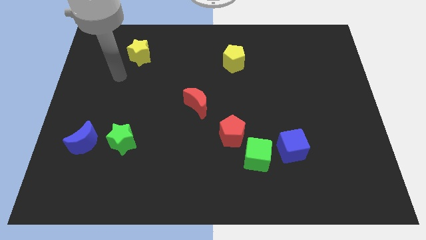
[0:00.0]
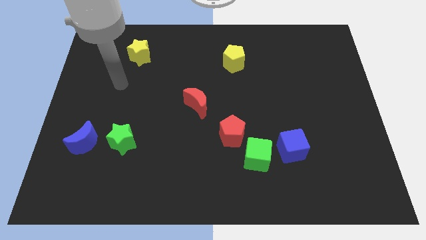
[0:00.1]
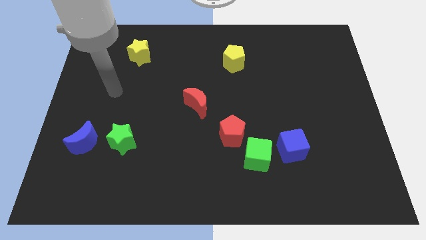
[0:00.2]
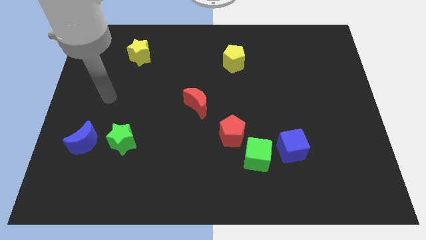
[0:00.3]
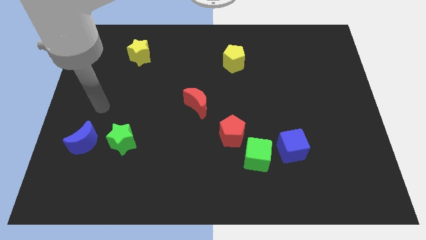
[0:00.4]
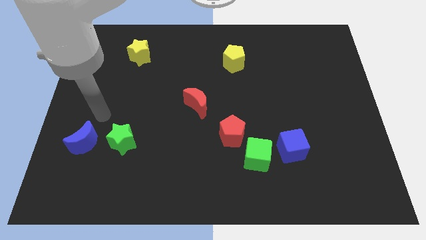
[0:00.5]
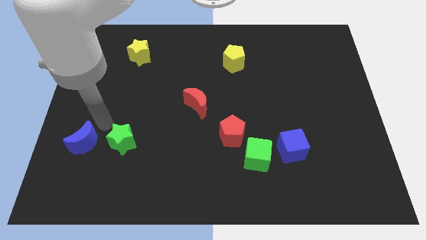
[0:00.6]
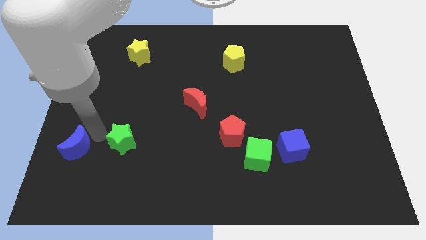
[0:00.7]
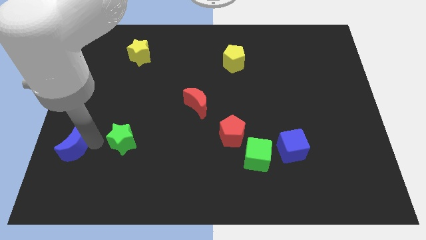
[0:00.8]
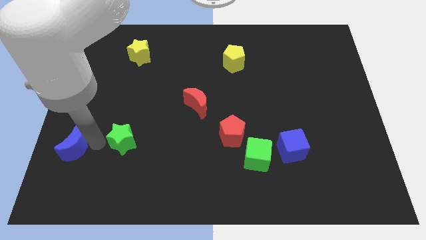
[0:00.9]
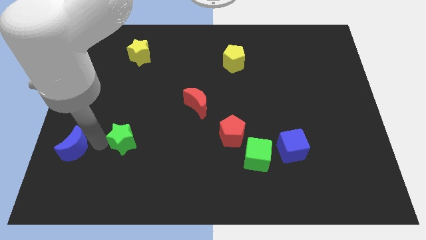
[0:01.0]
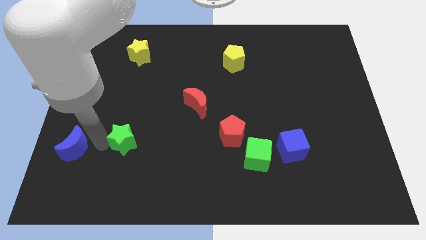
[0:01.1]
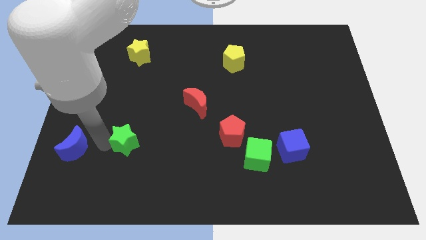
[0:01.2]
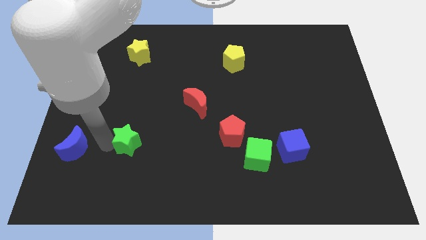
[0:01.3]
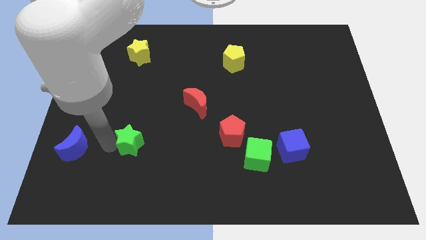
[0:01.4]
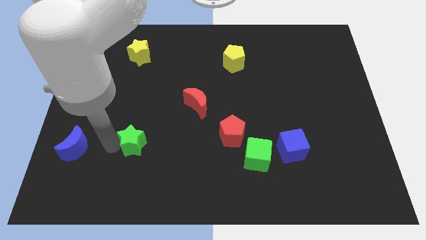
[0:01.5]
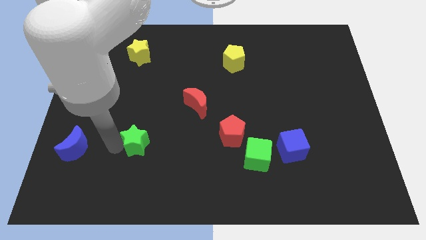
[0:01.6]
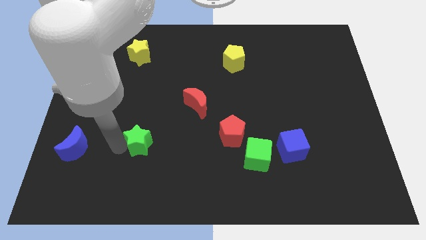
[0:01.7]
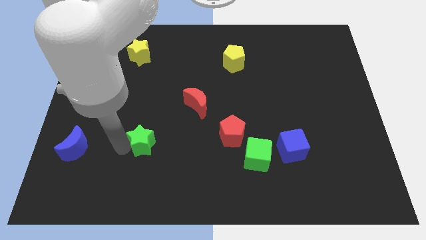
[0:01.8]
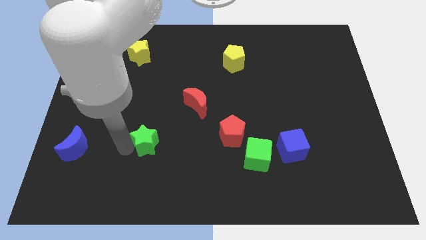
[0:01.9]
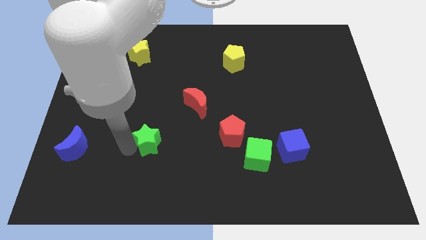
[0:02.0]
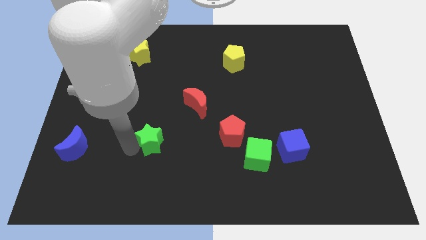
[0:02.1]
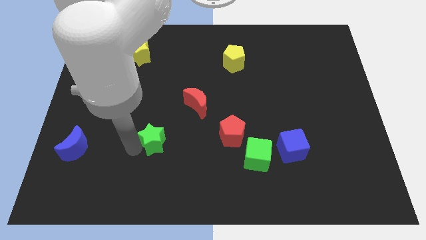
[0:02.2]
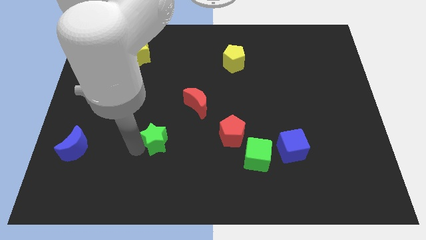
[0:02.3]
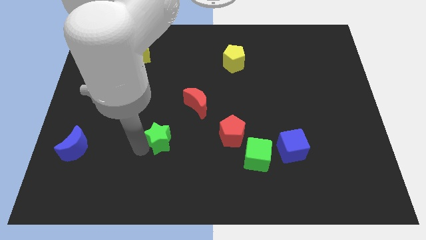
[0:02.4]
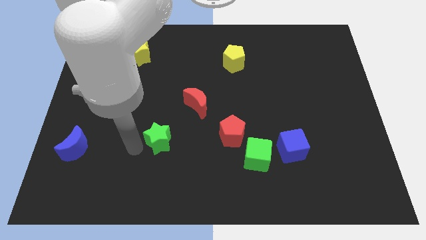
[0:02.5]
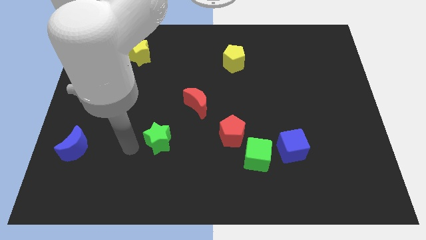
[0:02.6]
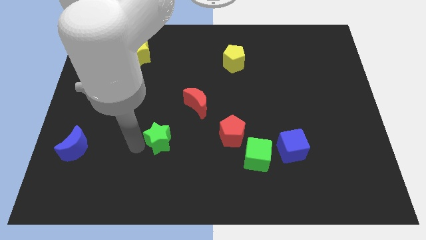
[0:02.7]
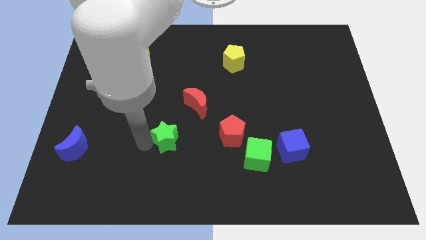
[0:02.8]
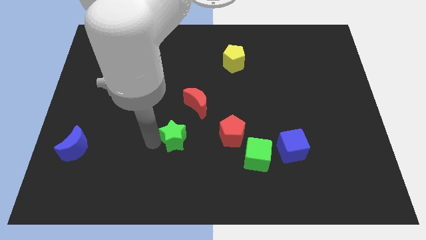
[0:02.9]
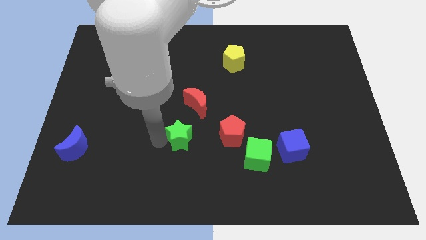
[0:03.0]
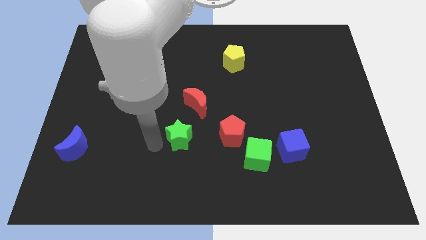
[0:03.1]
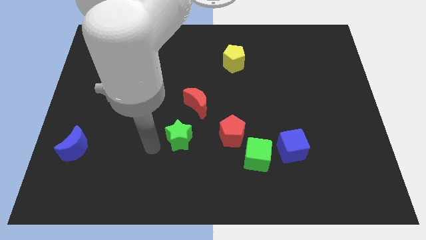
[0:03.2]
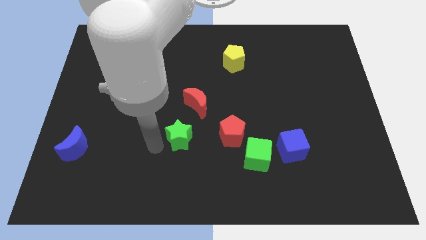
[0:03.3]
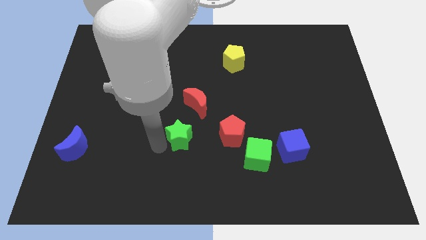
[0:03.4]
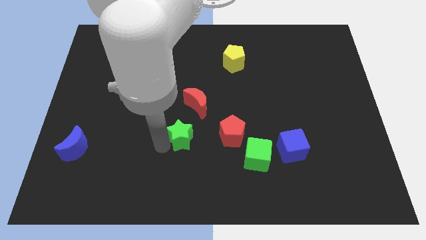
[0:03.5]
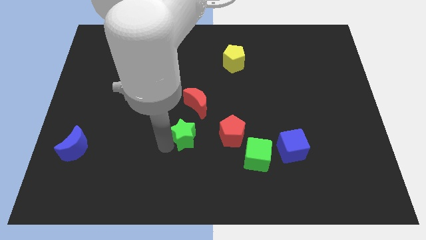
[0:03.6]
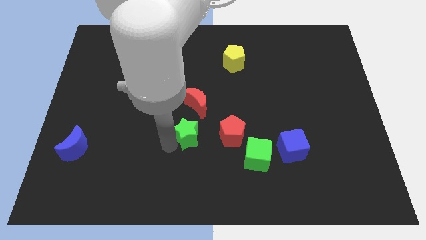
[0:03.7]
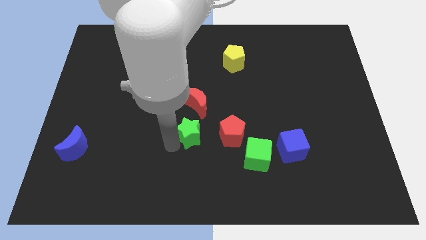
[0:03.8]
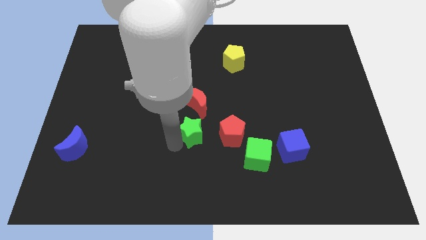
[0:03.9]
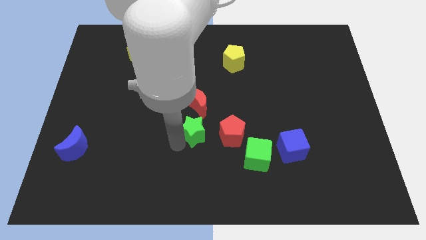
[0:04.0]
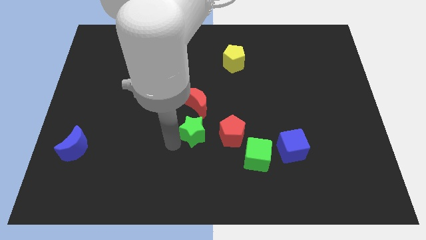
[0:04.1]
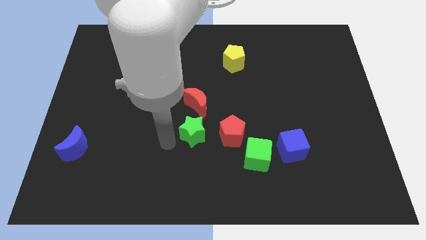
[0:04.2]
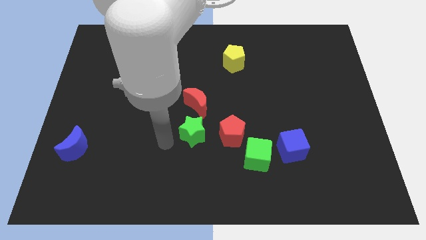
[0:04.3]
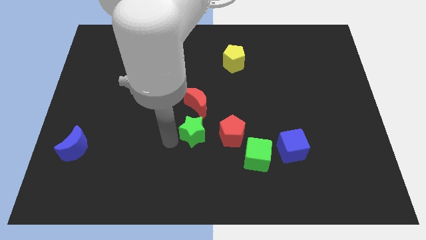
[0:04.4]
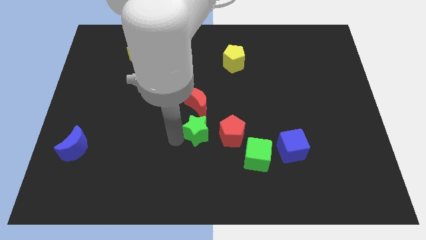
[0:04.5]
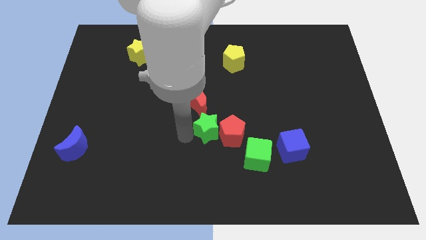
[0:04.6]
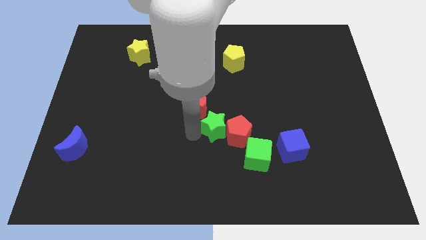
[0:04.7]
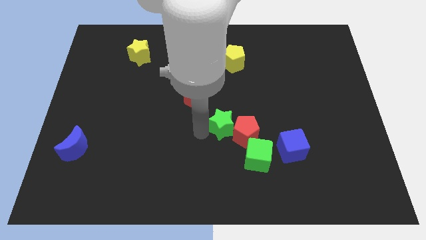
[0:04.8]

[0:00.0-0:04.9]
move the green star to the right

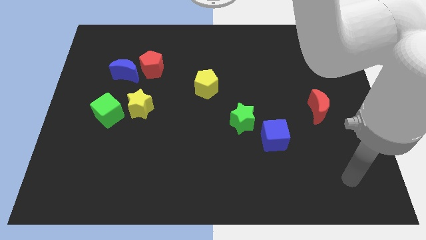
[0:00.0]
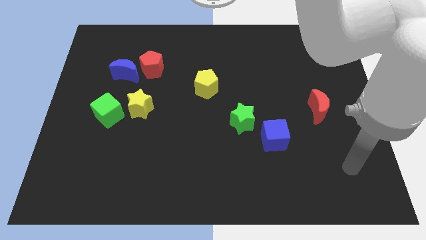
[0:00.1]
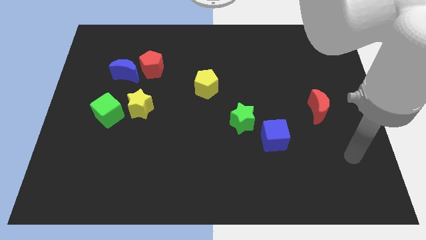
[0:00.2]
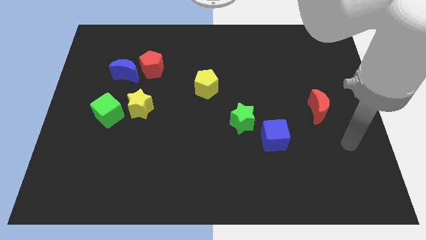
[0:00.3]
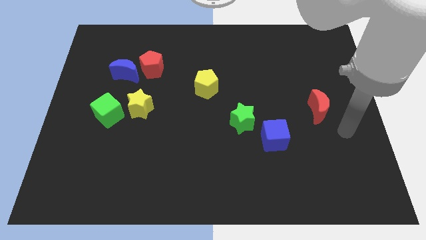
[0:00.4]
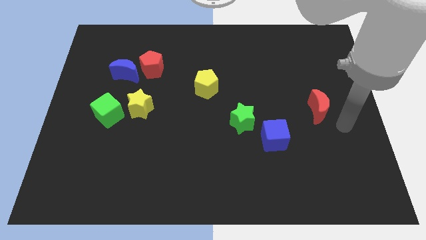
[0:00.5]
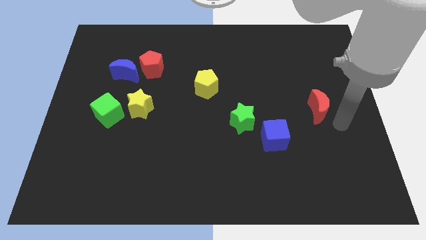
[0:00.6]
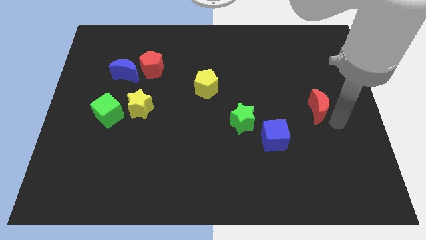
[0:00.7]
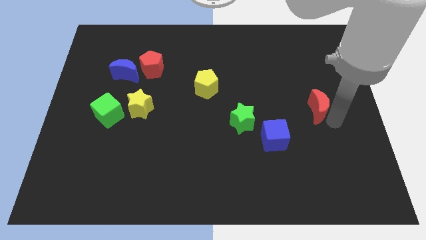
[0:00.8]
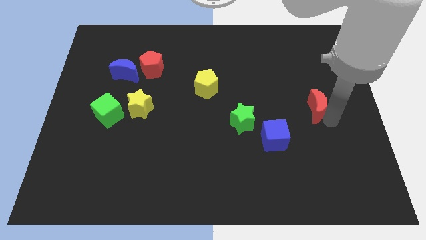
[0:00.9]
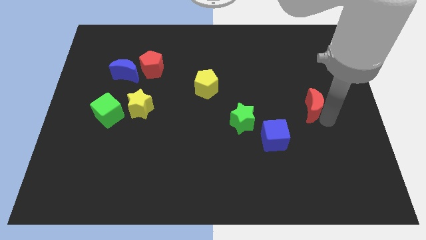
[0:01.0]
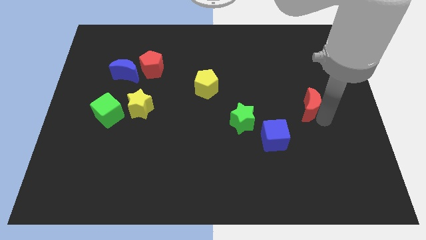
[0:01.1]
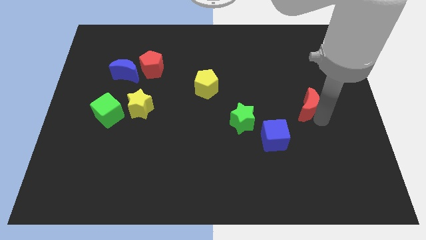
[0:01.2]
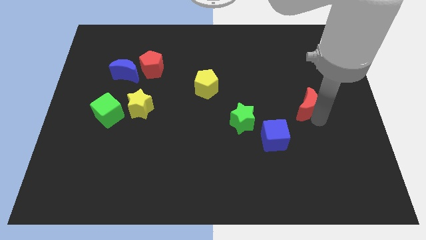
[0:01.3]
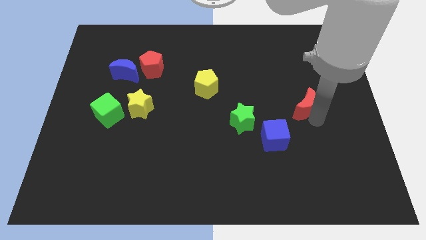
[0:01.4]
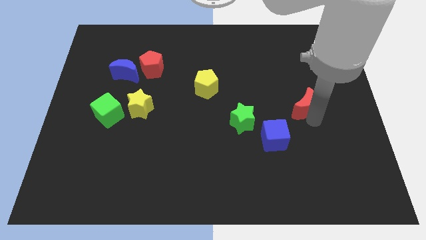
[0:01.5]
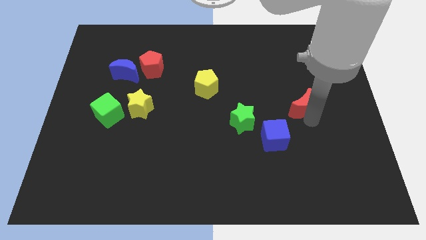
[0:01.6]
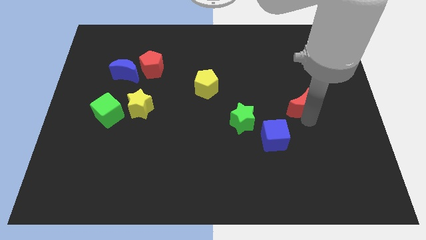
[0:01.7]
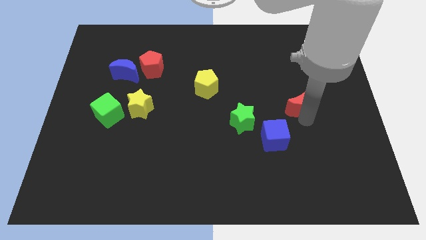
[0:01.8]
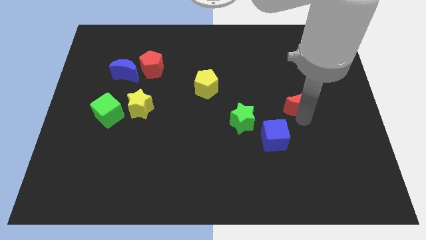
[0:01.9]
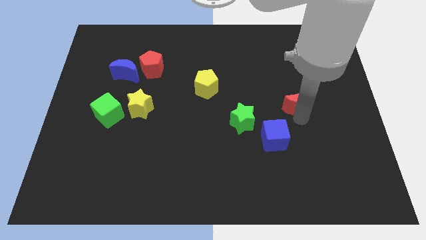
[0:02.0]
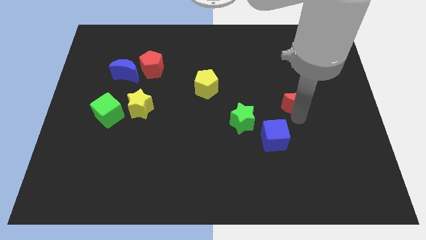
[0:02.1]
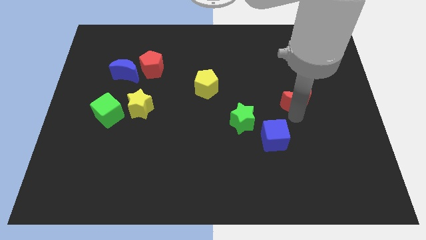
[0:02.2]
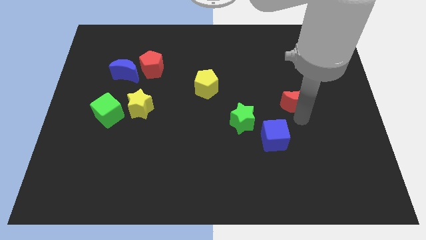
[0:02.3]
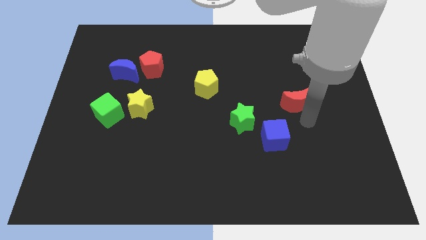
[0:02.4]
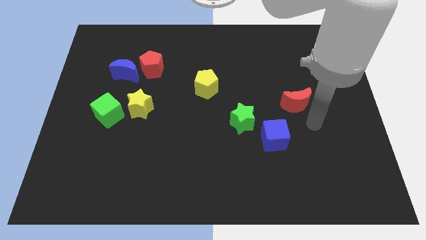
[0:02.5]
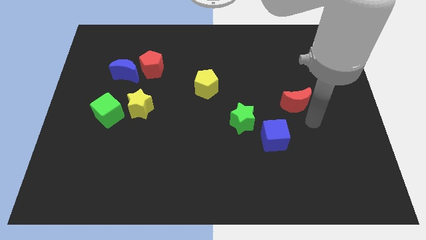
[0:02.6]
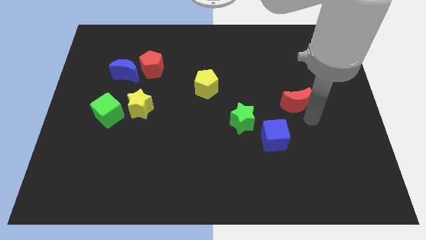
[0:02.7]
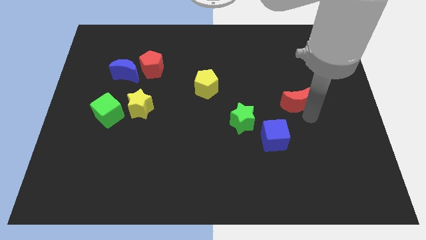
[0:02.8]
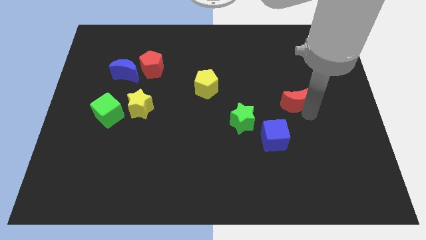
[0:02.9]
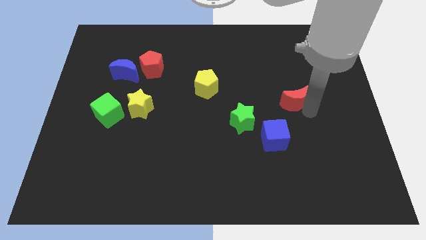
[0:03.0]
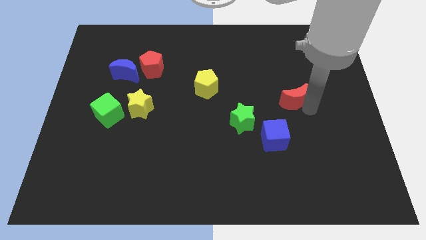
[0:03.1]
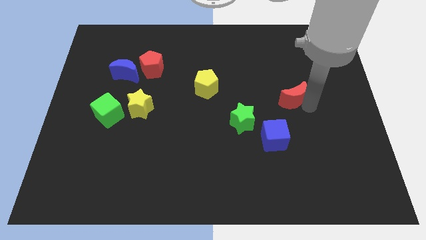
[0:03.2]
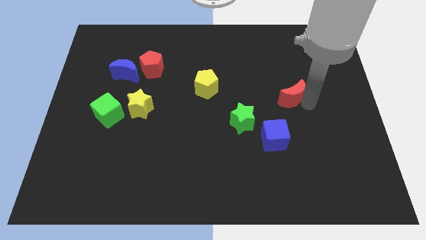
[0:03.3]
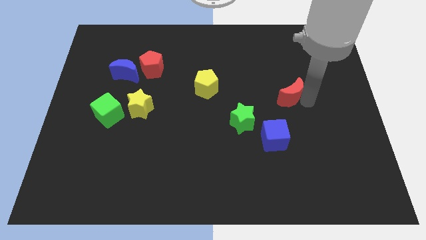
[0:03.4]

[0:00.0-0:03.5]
push the red moon up and to the left a little
